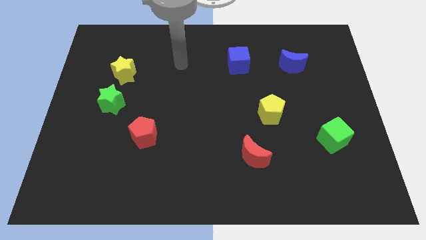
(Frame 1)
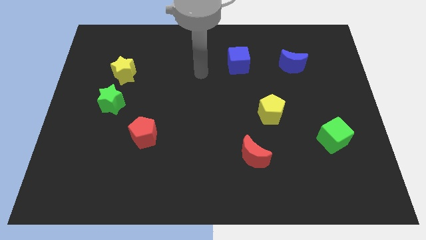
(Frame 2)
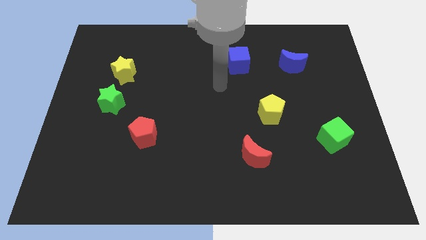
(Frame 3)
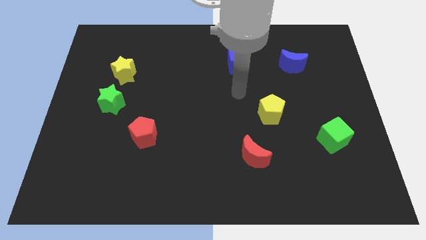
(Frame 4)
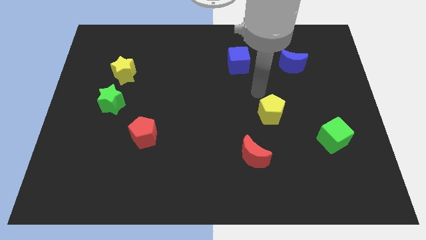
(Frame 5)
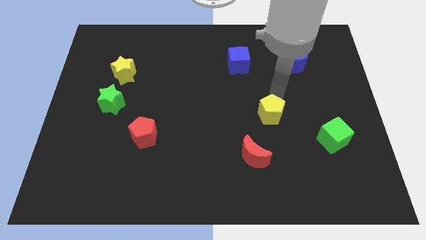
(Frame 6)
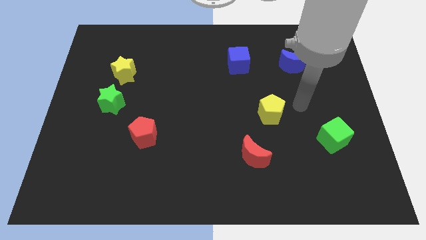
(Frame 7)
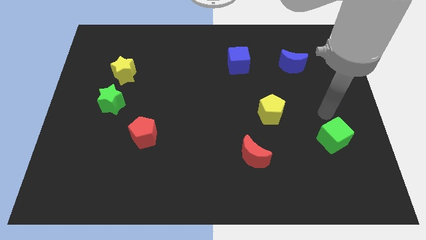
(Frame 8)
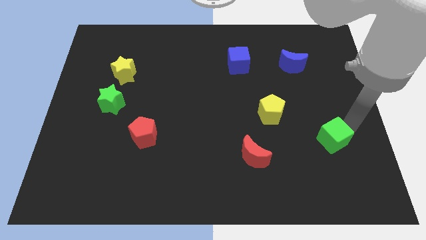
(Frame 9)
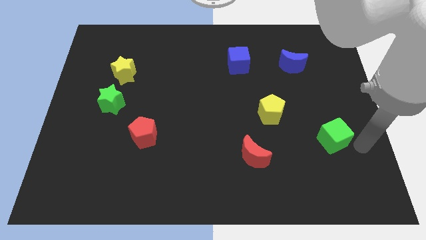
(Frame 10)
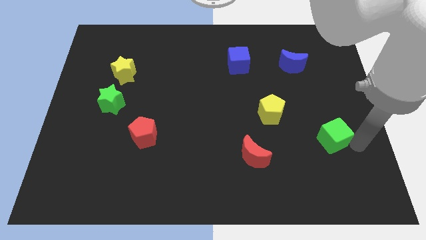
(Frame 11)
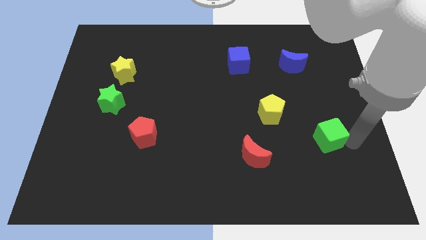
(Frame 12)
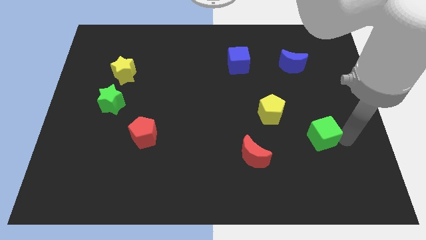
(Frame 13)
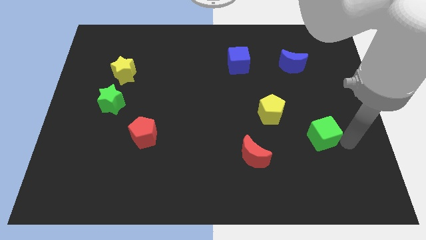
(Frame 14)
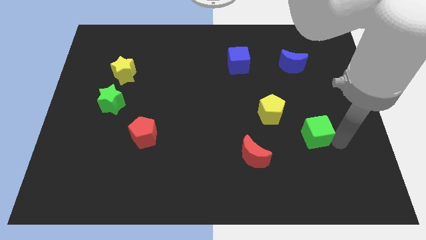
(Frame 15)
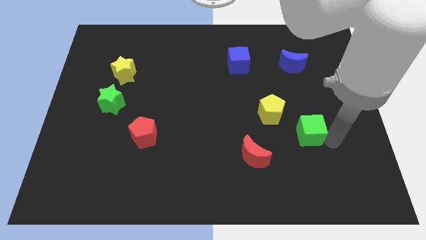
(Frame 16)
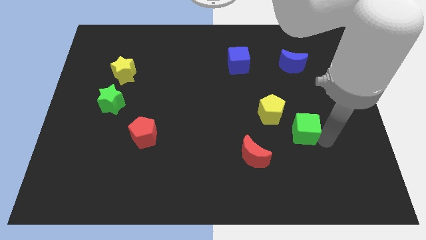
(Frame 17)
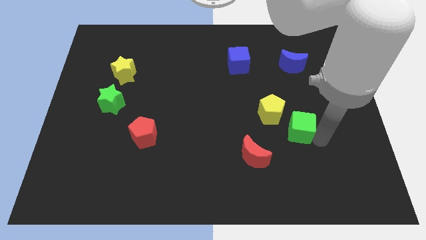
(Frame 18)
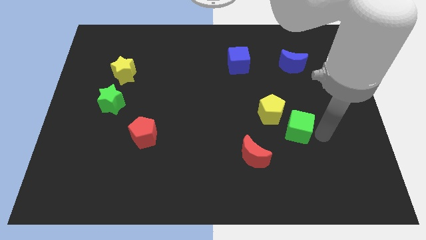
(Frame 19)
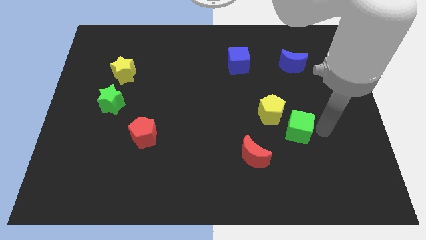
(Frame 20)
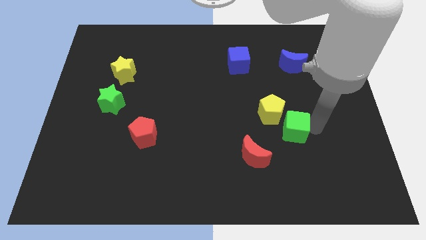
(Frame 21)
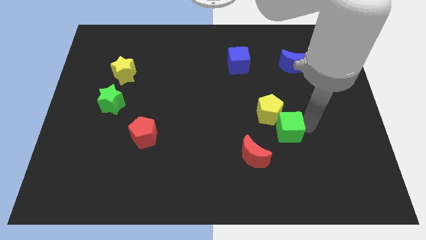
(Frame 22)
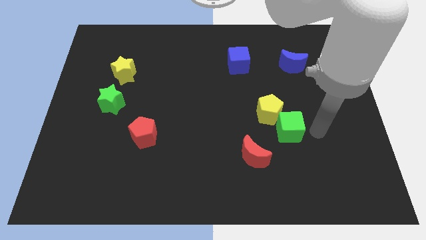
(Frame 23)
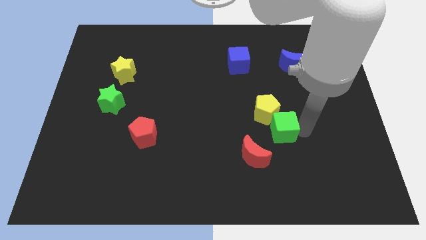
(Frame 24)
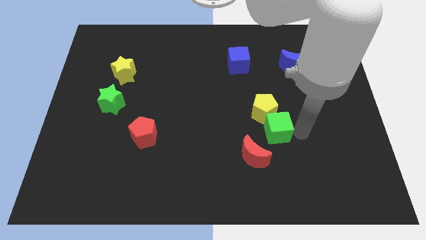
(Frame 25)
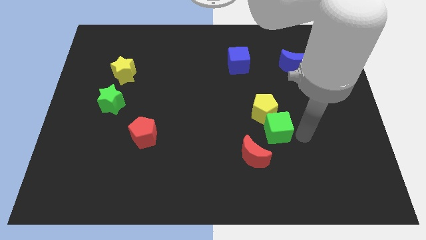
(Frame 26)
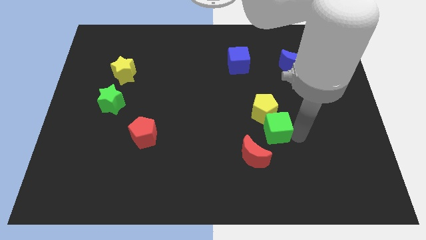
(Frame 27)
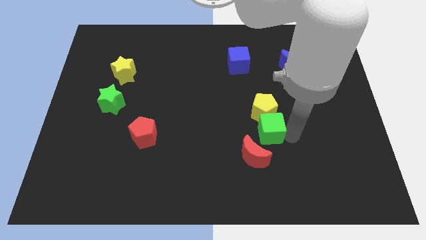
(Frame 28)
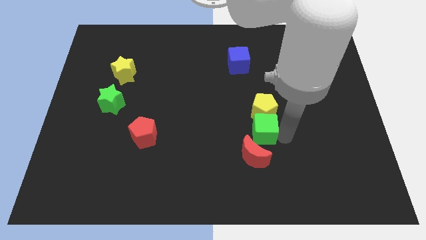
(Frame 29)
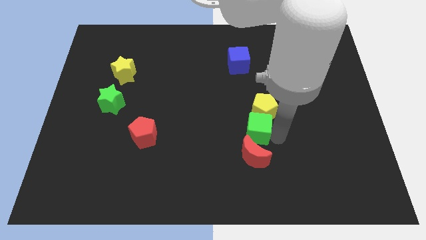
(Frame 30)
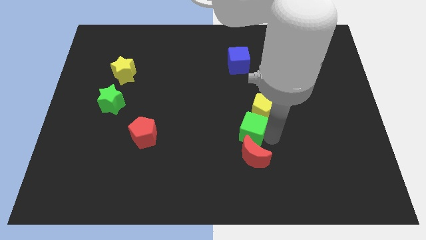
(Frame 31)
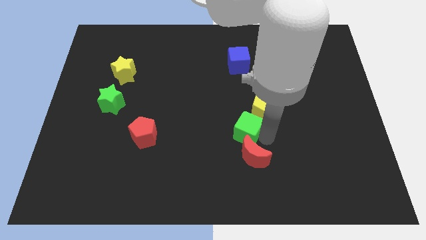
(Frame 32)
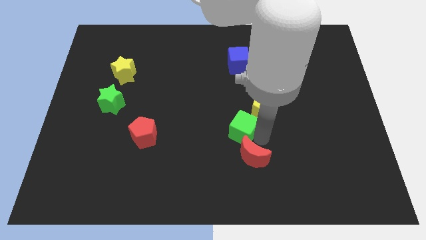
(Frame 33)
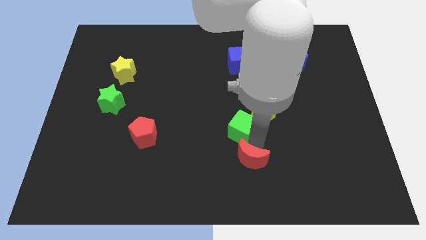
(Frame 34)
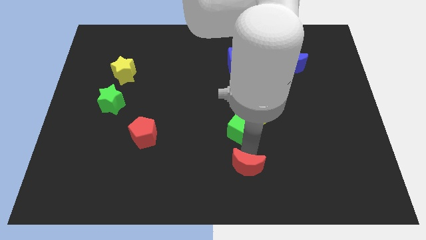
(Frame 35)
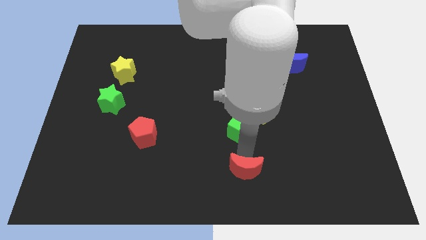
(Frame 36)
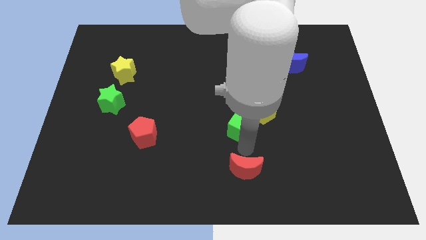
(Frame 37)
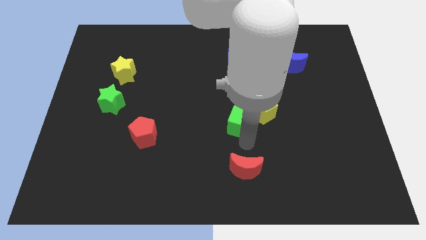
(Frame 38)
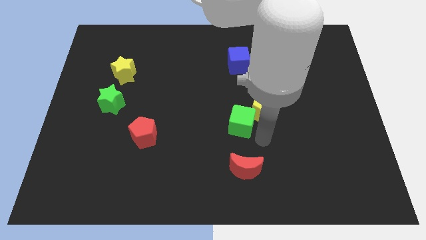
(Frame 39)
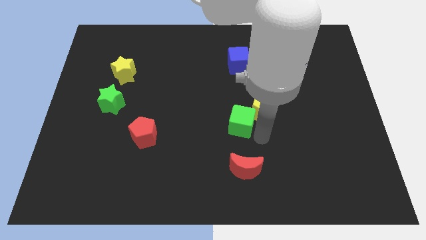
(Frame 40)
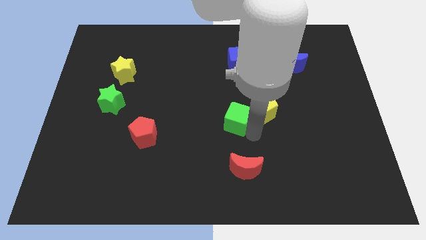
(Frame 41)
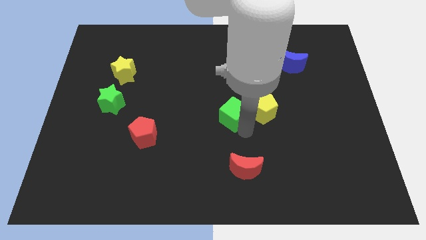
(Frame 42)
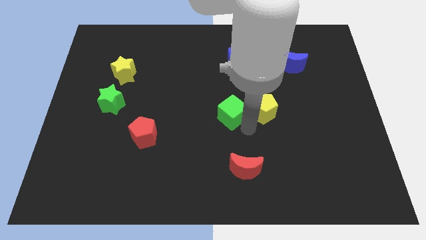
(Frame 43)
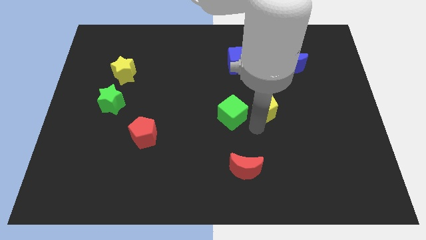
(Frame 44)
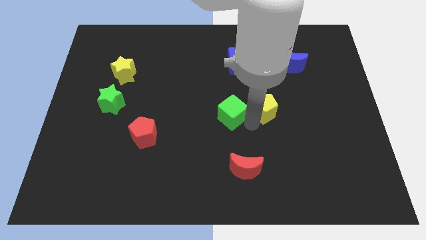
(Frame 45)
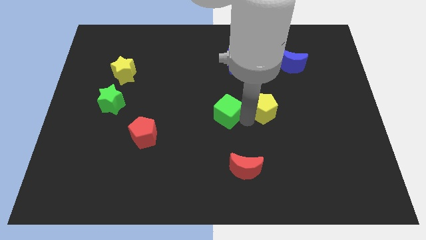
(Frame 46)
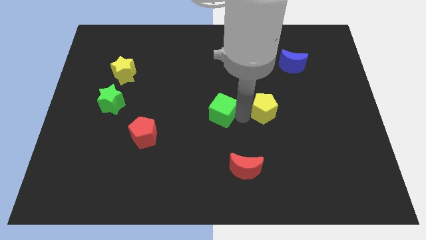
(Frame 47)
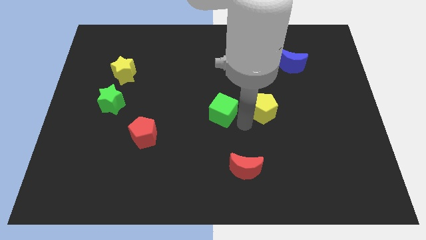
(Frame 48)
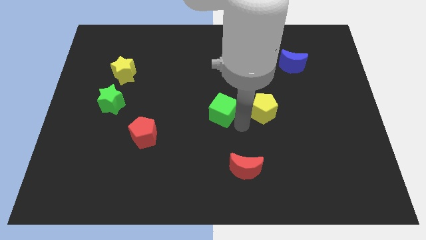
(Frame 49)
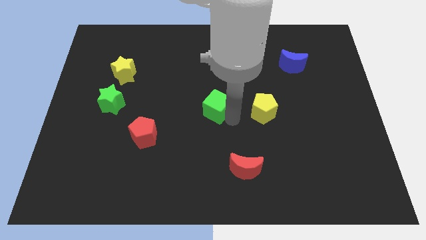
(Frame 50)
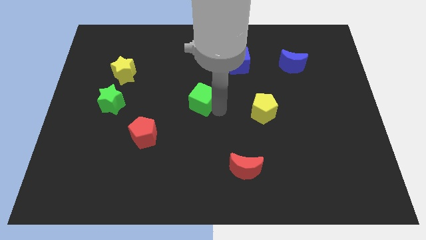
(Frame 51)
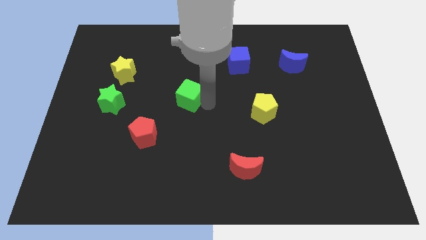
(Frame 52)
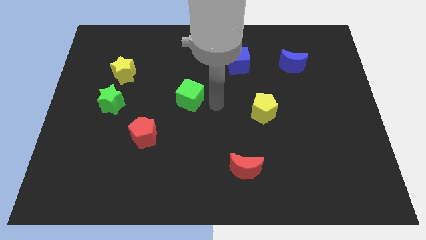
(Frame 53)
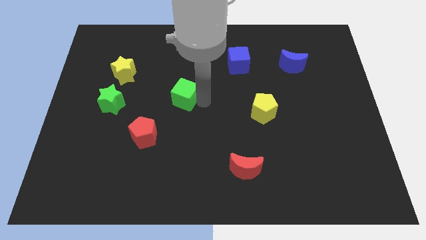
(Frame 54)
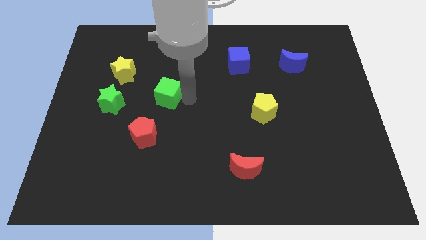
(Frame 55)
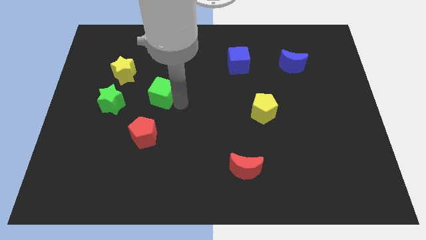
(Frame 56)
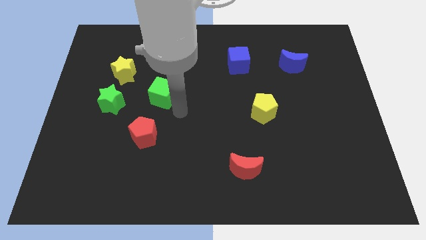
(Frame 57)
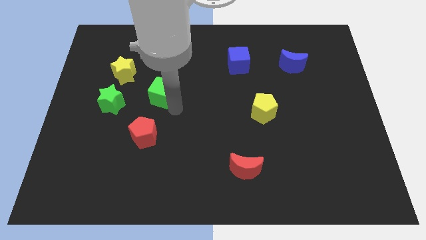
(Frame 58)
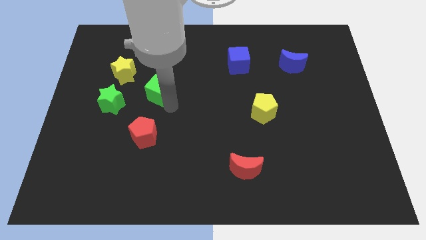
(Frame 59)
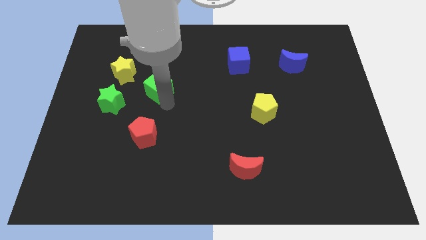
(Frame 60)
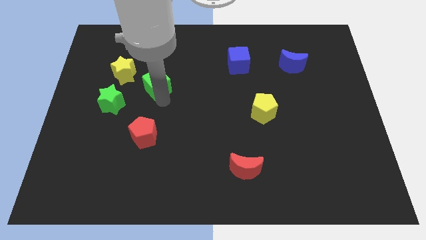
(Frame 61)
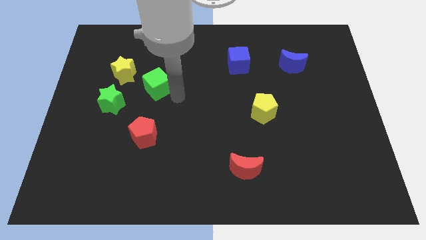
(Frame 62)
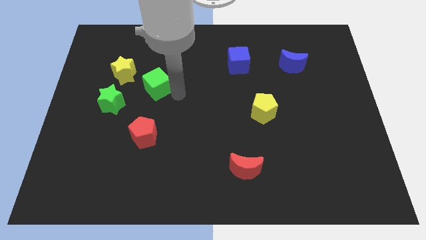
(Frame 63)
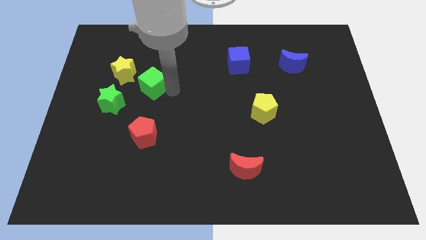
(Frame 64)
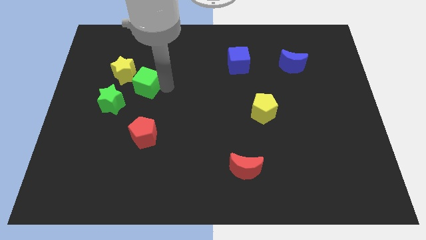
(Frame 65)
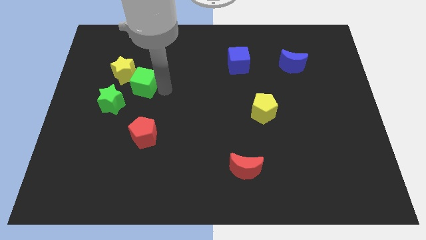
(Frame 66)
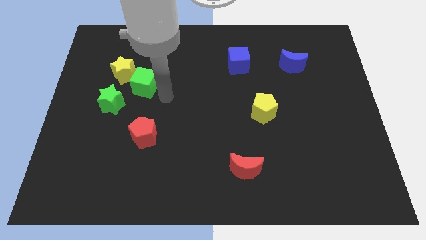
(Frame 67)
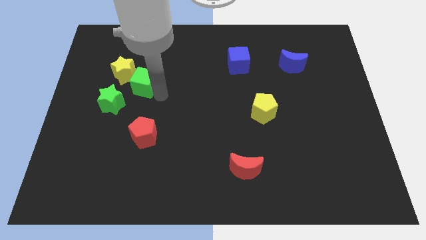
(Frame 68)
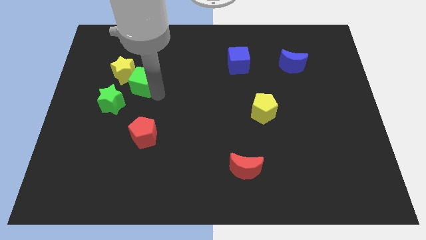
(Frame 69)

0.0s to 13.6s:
push the green cube close to the yellow star

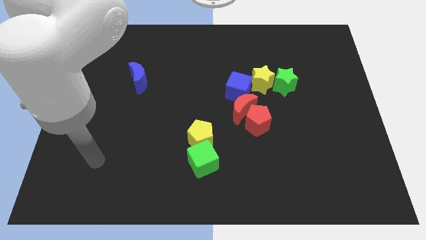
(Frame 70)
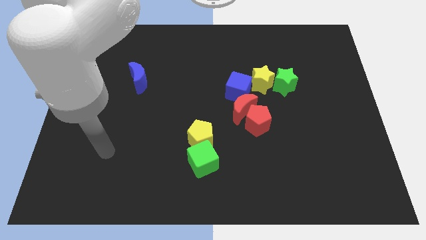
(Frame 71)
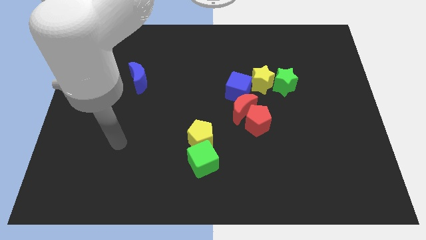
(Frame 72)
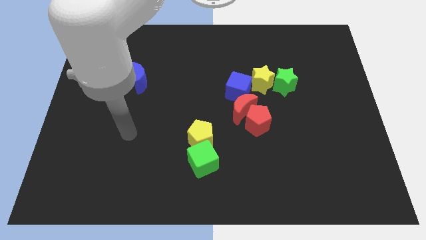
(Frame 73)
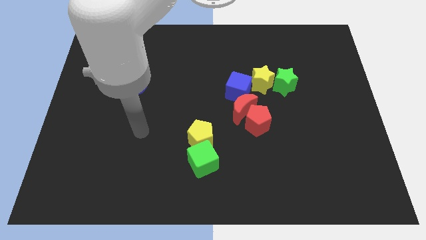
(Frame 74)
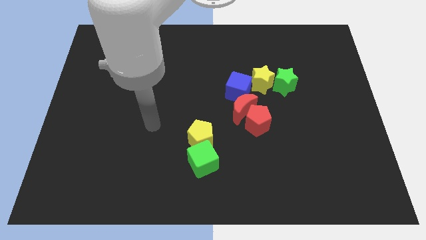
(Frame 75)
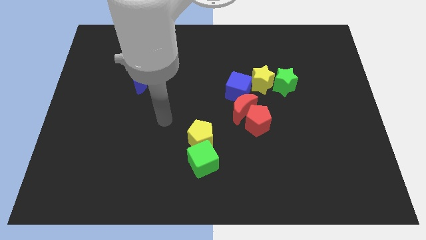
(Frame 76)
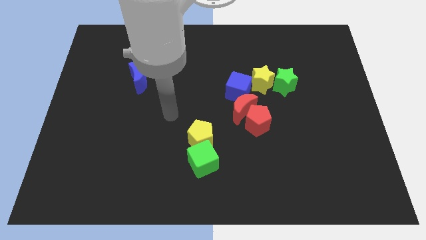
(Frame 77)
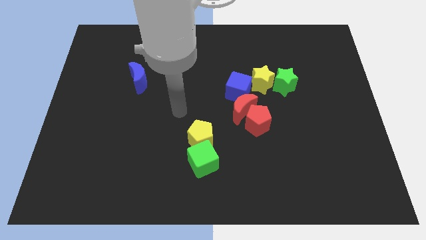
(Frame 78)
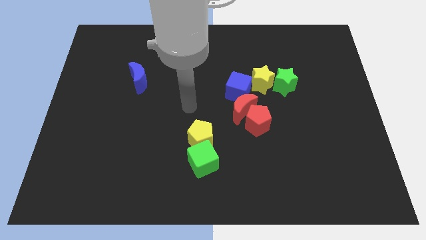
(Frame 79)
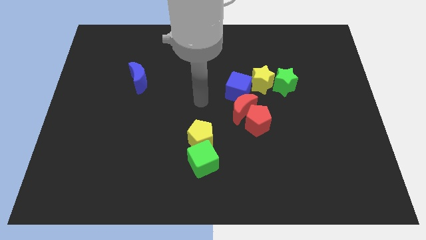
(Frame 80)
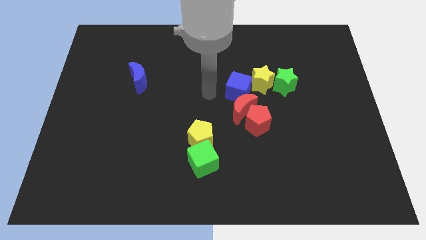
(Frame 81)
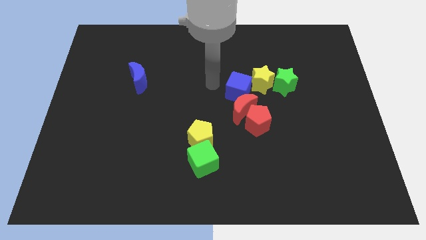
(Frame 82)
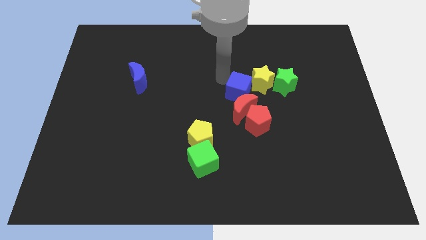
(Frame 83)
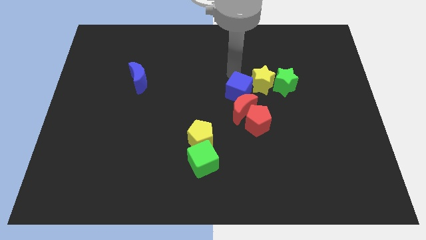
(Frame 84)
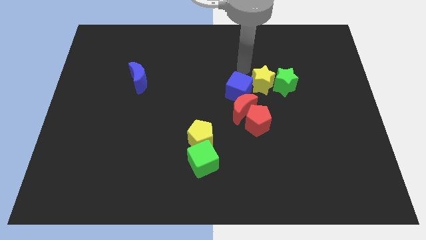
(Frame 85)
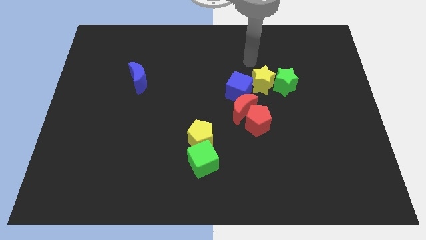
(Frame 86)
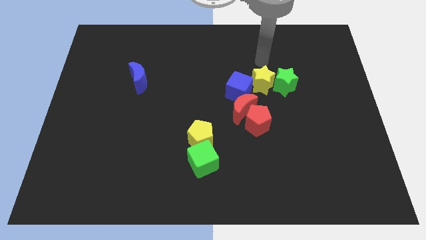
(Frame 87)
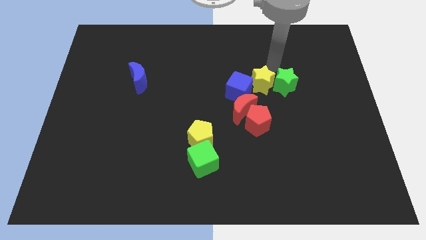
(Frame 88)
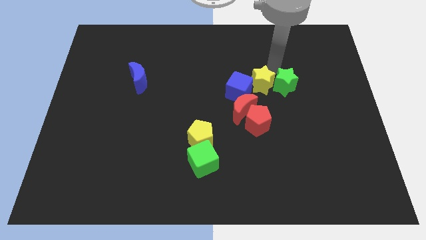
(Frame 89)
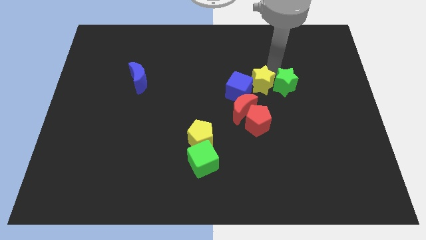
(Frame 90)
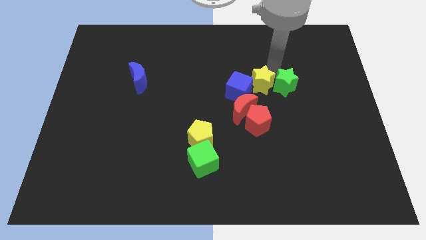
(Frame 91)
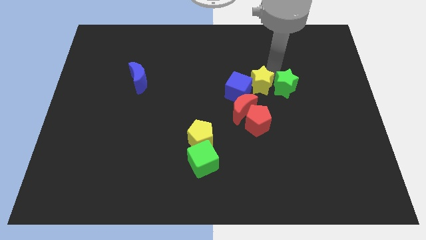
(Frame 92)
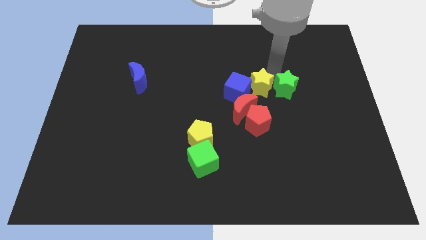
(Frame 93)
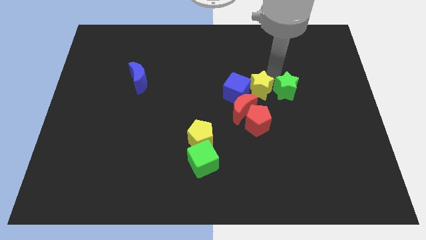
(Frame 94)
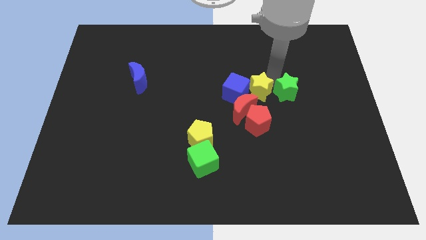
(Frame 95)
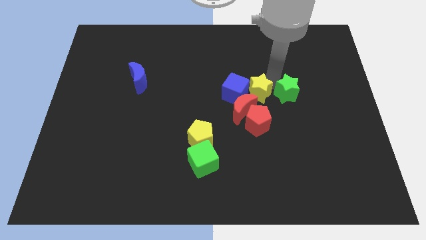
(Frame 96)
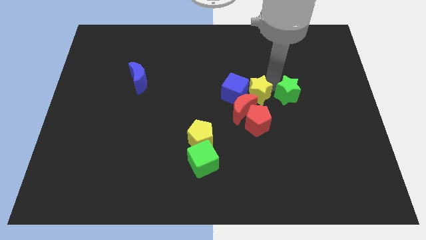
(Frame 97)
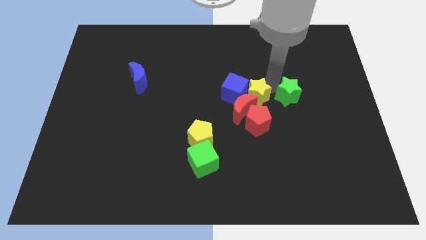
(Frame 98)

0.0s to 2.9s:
slide the yellow star close to the red moon
